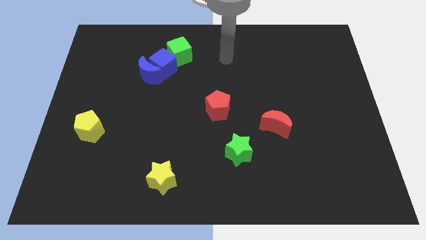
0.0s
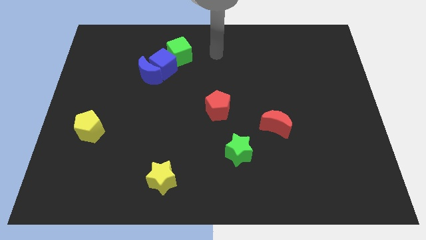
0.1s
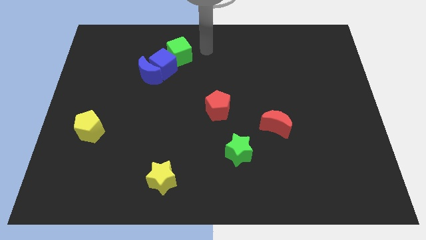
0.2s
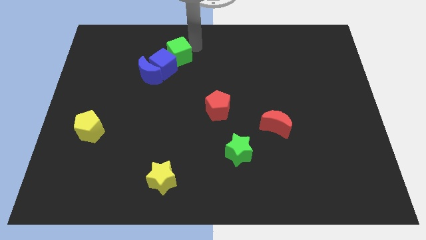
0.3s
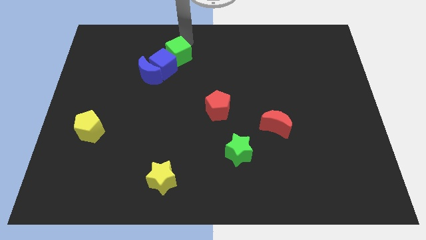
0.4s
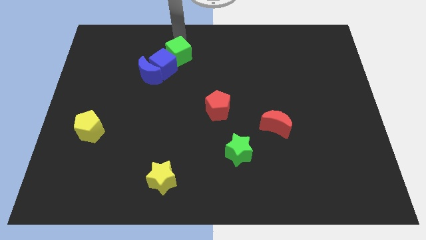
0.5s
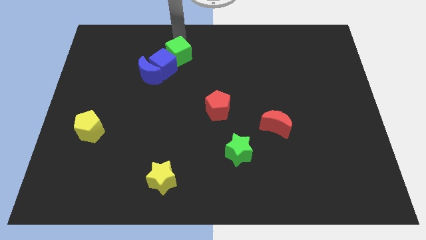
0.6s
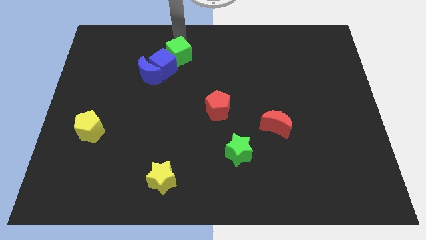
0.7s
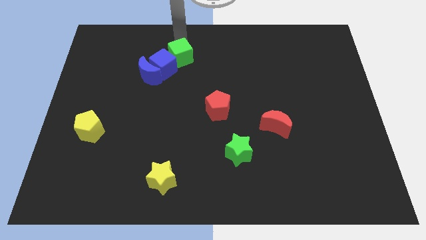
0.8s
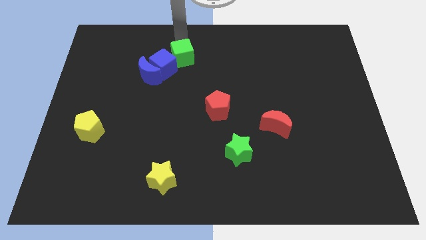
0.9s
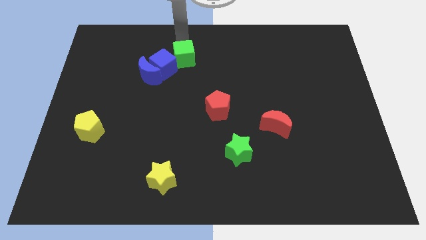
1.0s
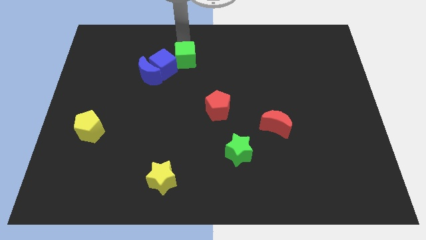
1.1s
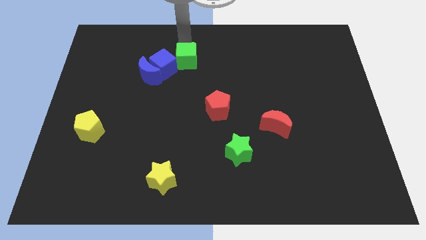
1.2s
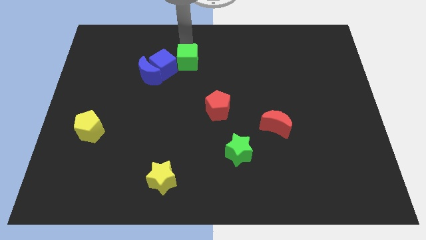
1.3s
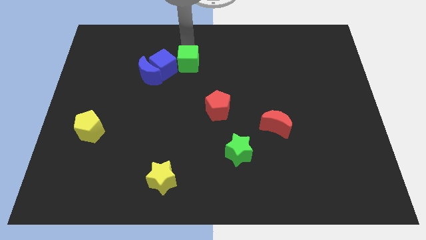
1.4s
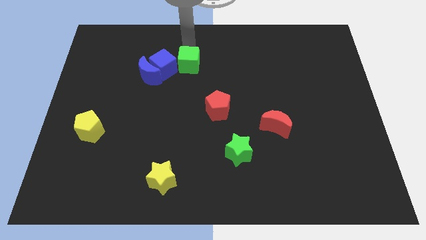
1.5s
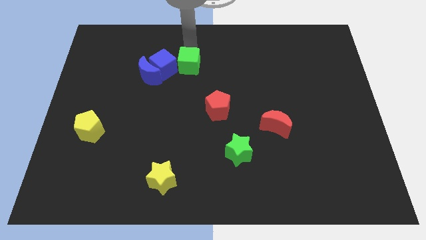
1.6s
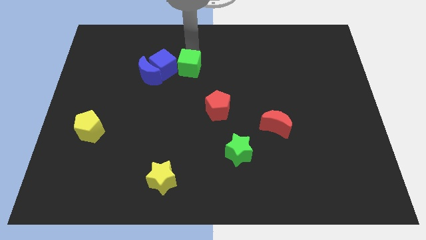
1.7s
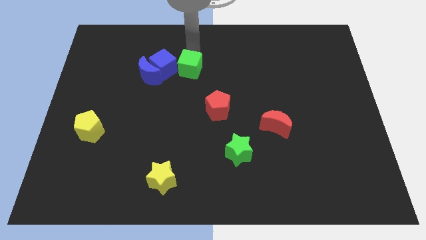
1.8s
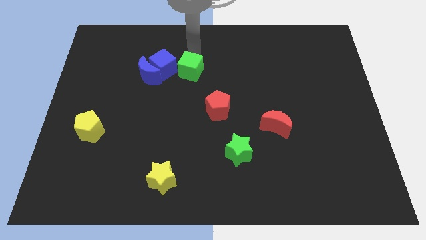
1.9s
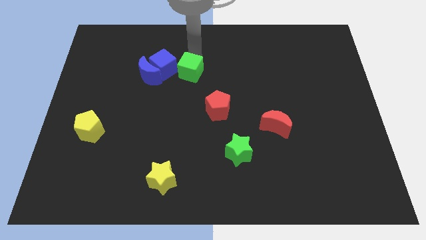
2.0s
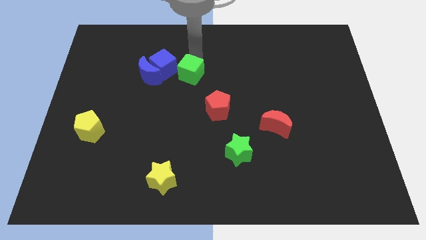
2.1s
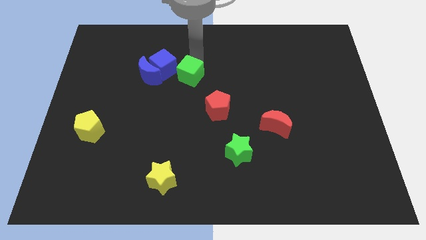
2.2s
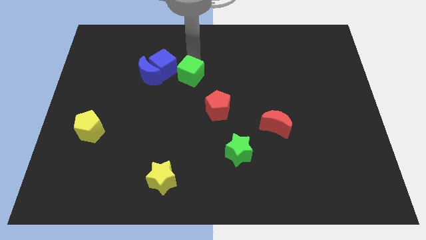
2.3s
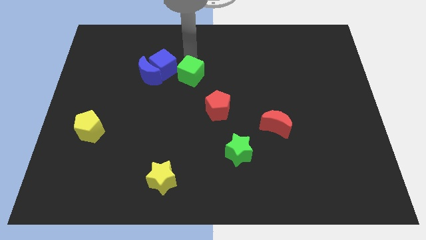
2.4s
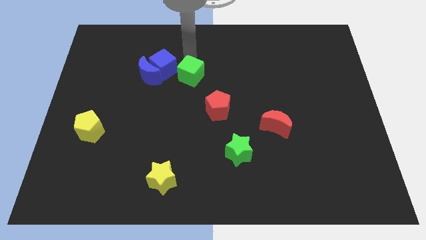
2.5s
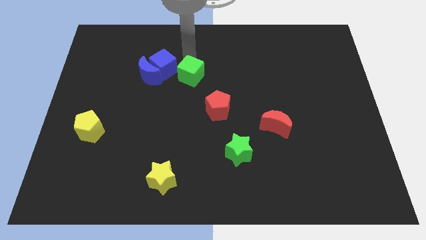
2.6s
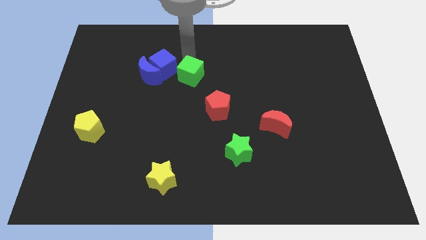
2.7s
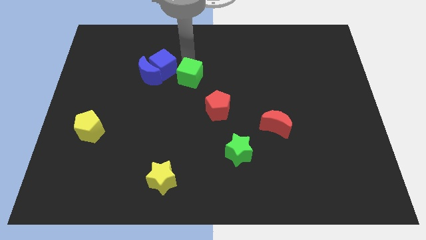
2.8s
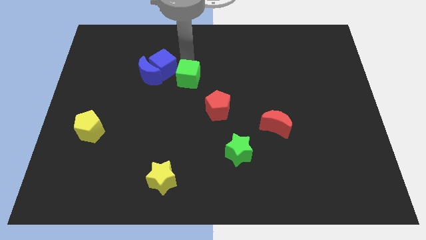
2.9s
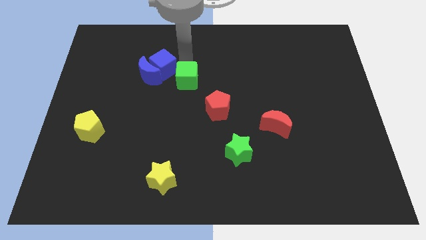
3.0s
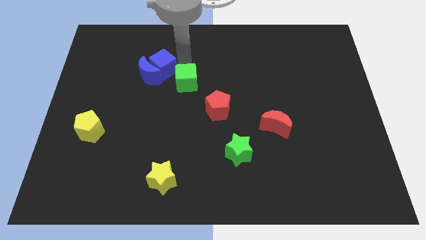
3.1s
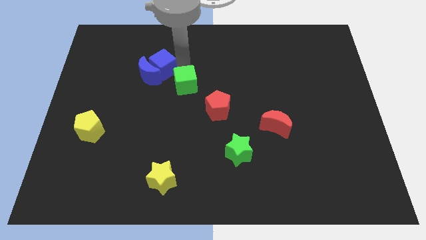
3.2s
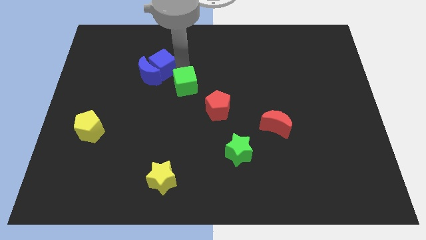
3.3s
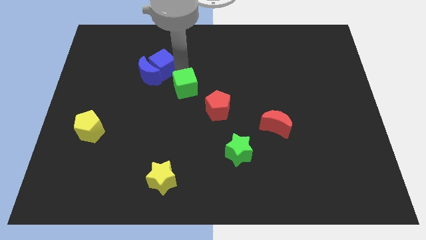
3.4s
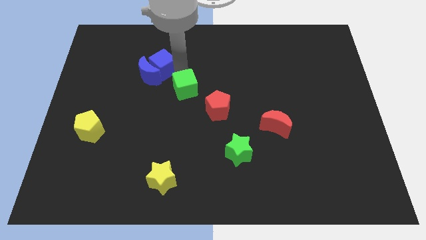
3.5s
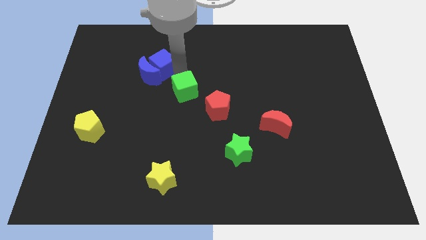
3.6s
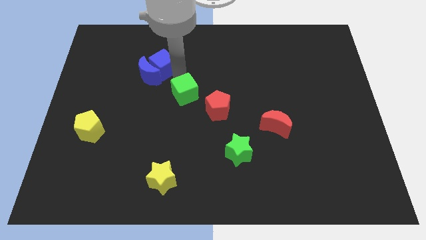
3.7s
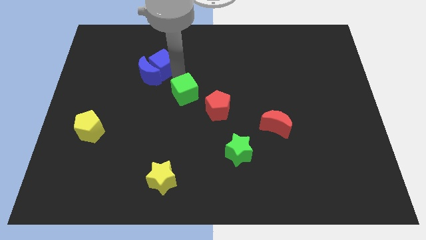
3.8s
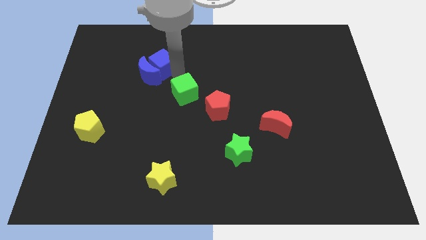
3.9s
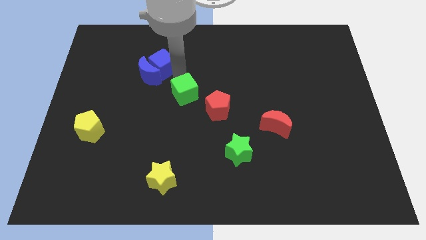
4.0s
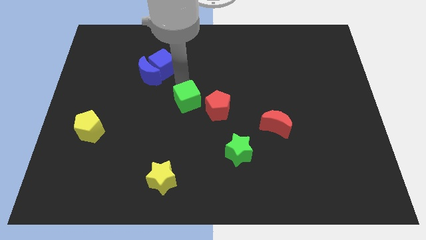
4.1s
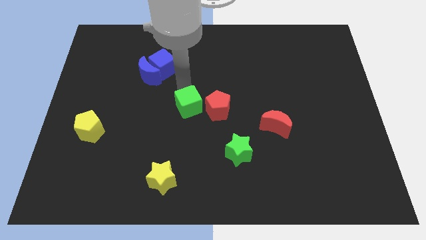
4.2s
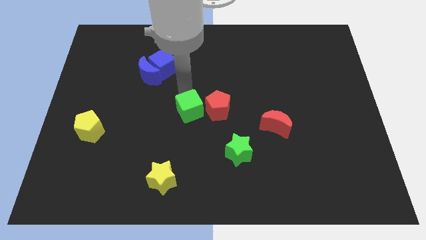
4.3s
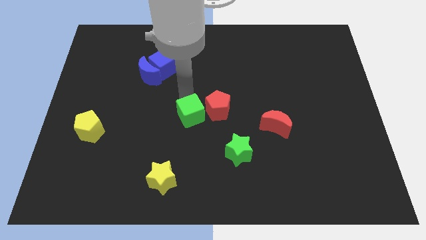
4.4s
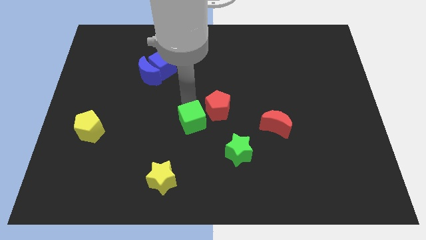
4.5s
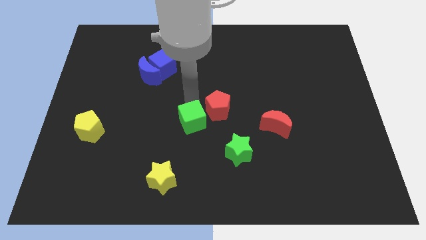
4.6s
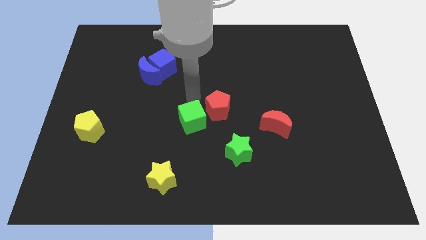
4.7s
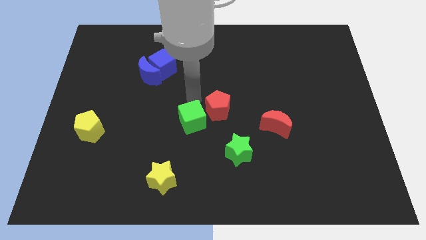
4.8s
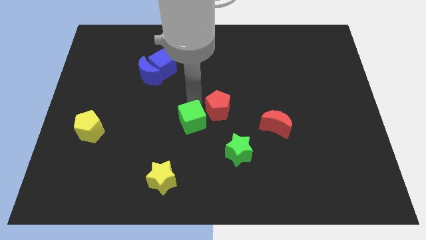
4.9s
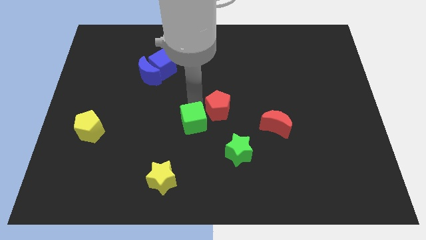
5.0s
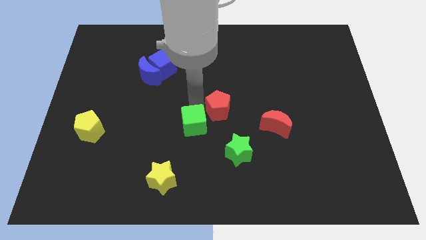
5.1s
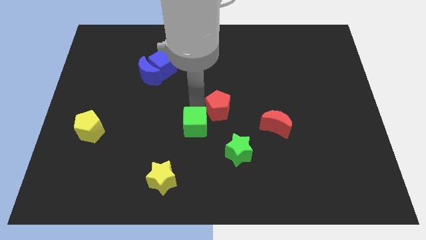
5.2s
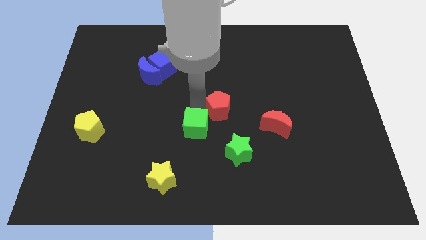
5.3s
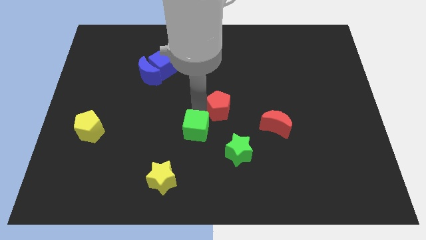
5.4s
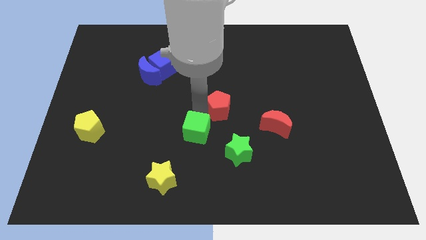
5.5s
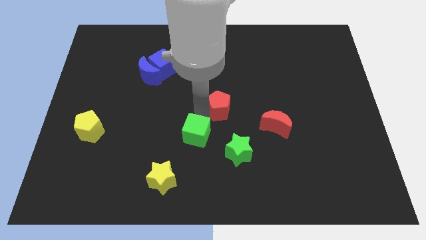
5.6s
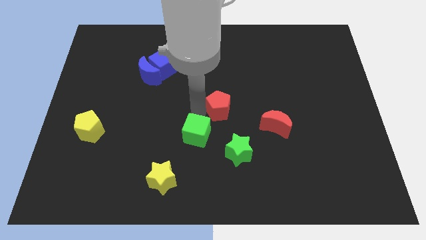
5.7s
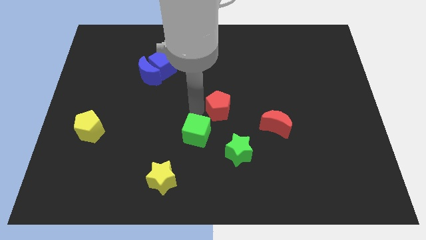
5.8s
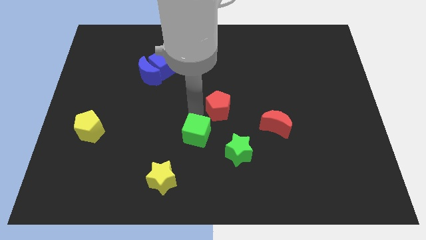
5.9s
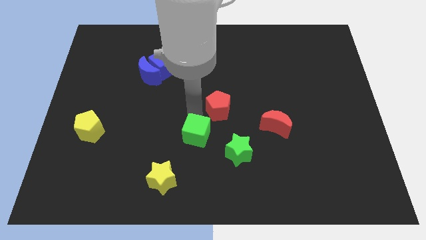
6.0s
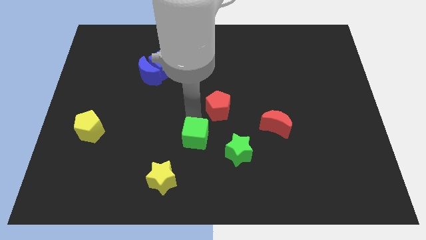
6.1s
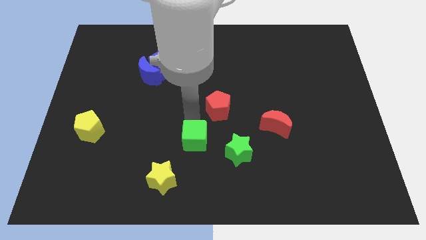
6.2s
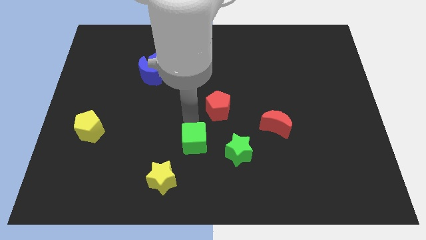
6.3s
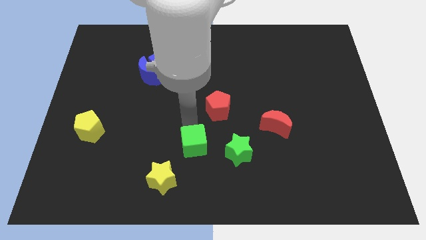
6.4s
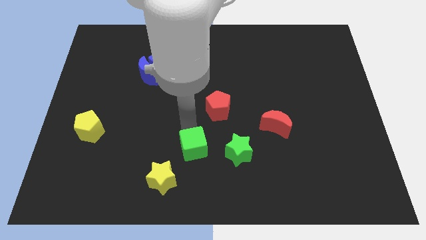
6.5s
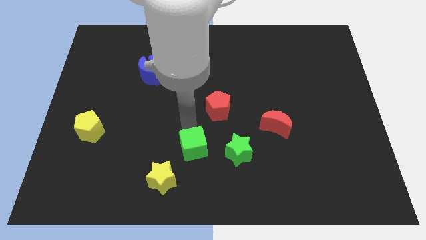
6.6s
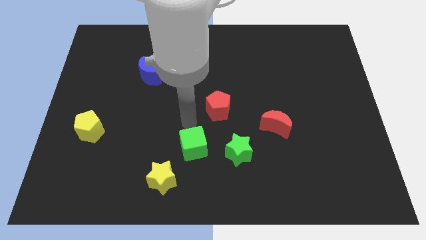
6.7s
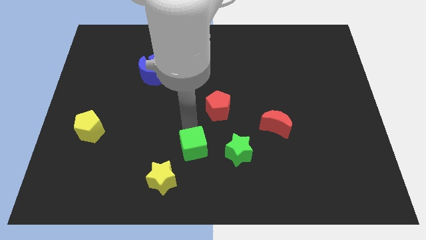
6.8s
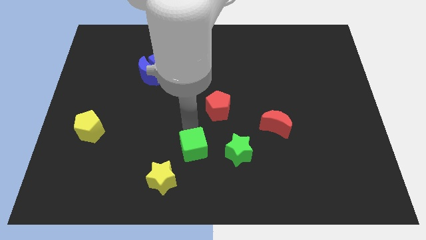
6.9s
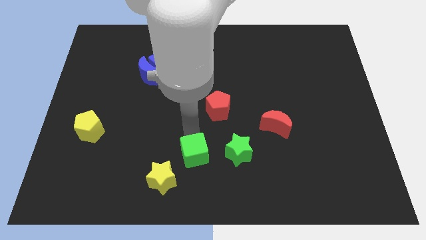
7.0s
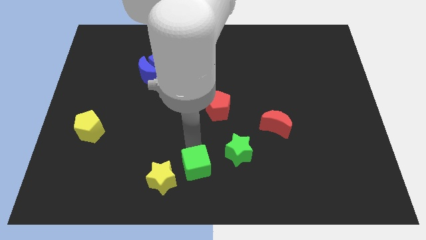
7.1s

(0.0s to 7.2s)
put the green cube to the bottom
